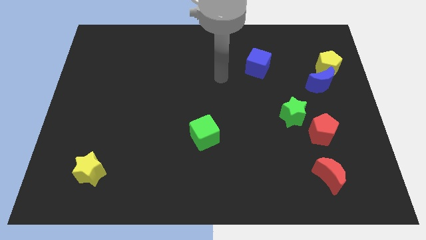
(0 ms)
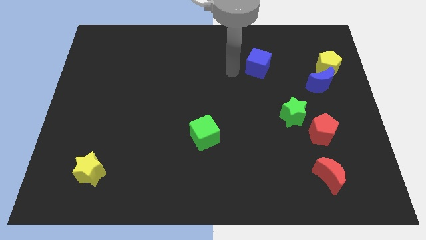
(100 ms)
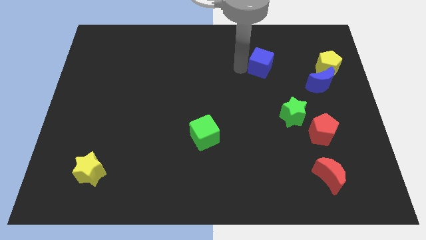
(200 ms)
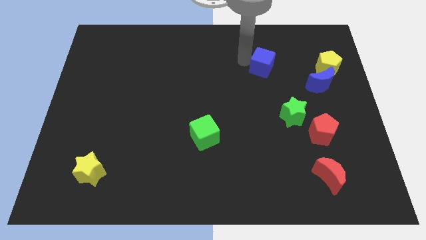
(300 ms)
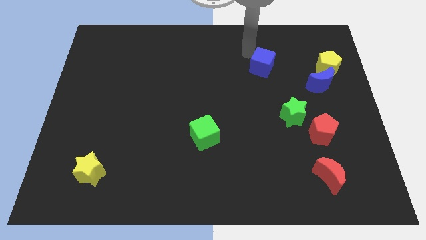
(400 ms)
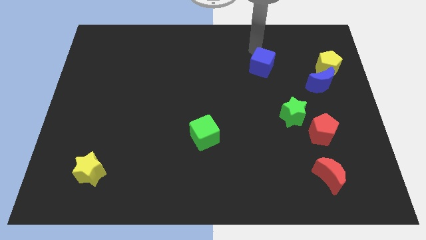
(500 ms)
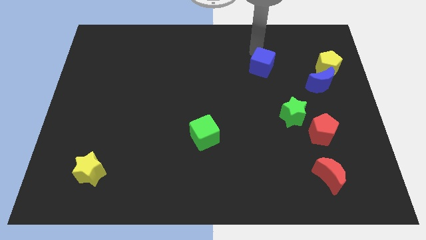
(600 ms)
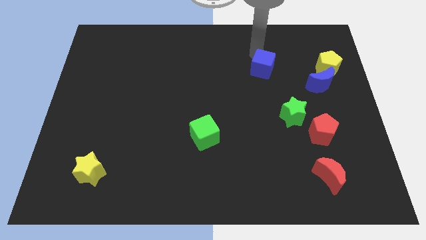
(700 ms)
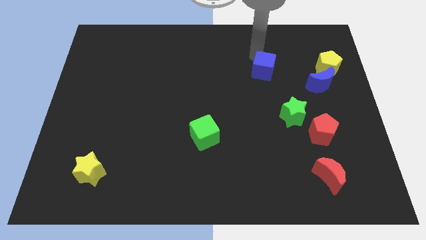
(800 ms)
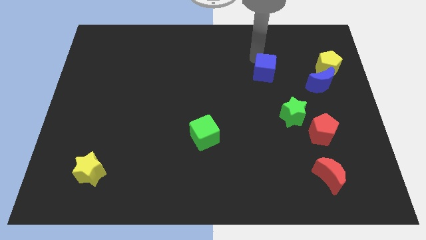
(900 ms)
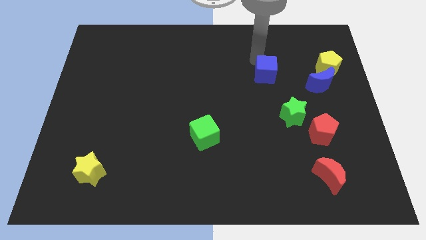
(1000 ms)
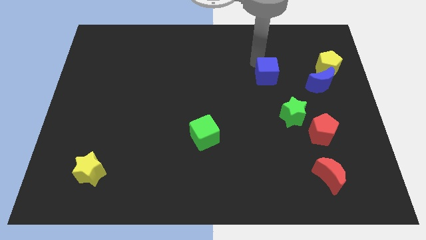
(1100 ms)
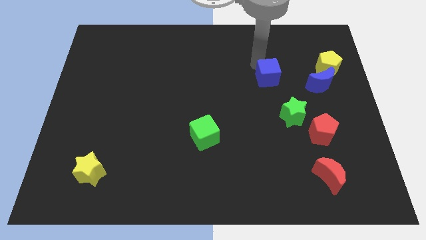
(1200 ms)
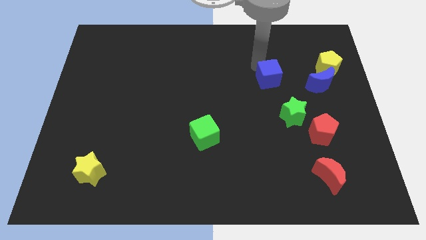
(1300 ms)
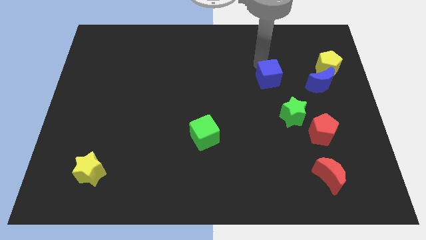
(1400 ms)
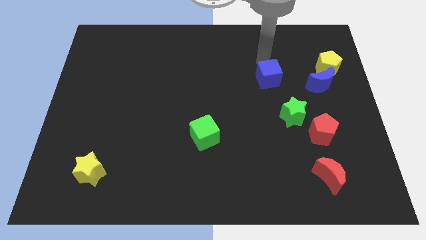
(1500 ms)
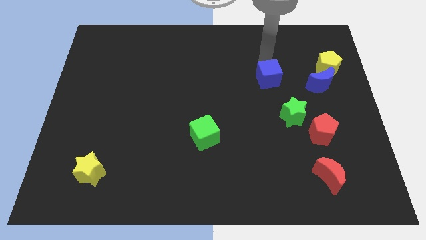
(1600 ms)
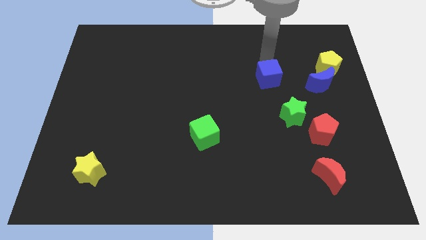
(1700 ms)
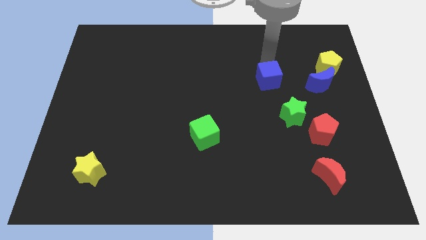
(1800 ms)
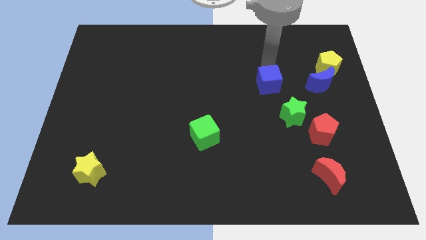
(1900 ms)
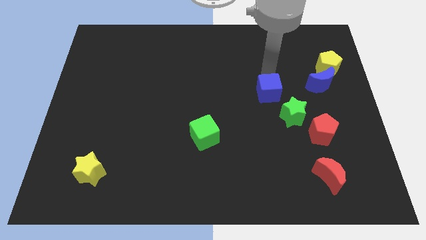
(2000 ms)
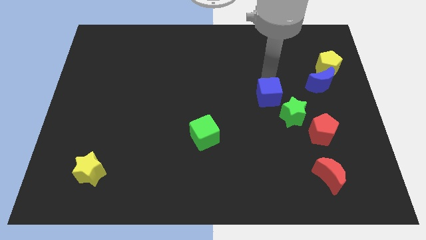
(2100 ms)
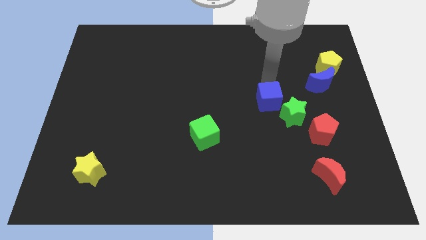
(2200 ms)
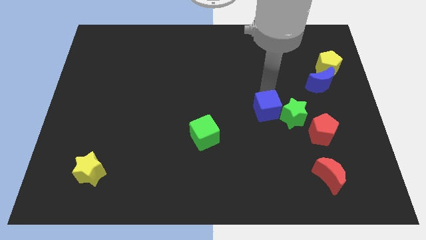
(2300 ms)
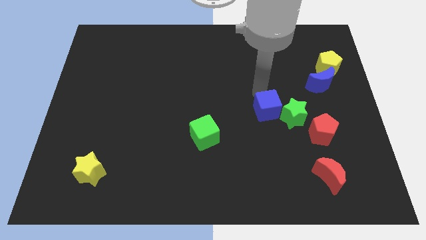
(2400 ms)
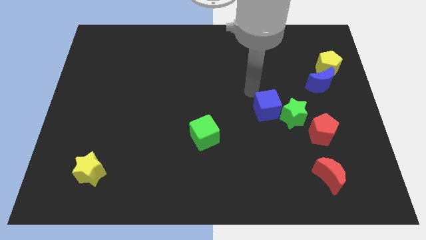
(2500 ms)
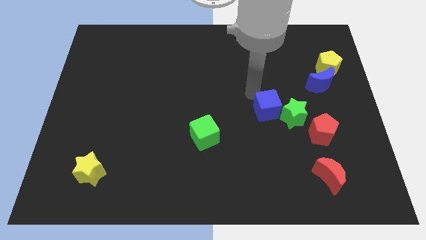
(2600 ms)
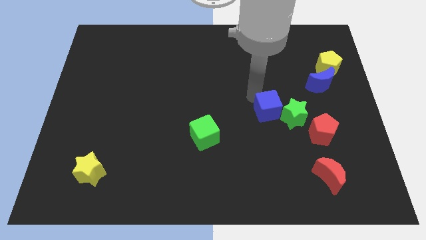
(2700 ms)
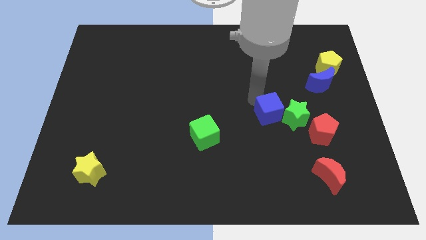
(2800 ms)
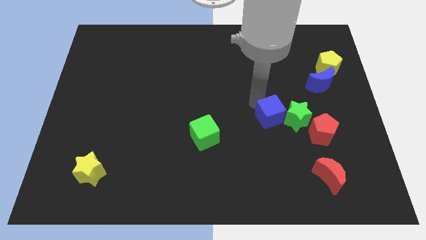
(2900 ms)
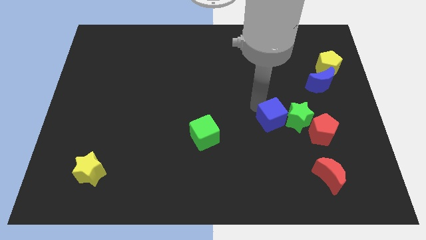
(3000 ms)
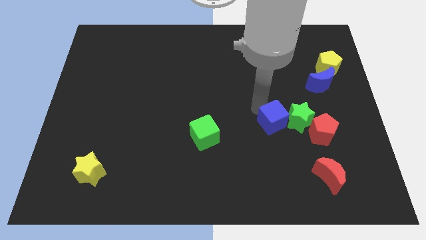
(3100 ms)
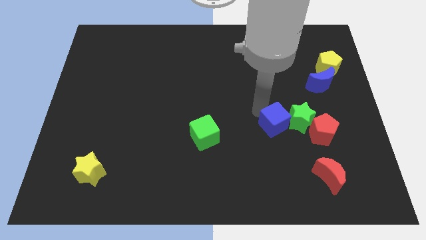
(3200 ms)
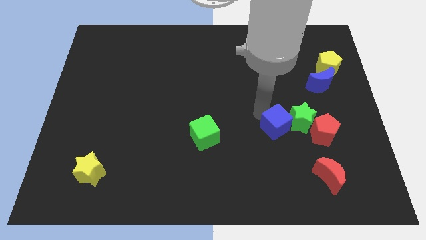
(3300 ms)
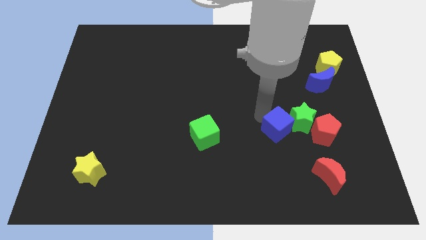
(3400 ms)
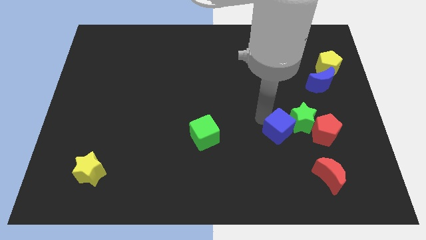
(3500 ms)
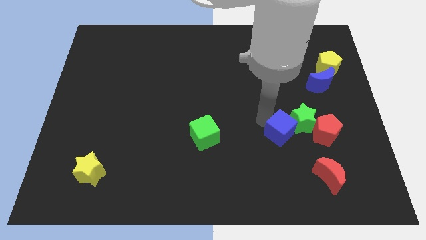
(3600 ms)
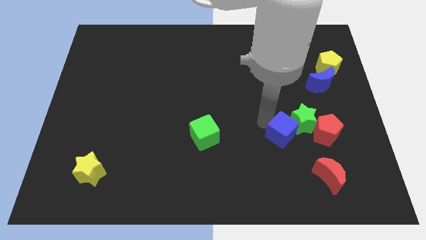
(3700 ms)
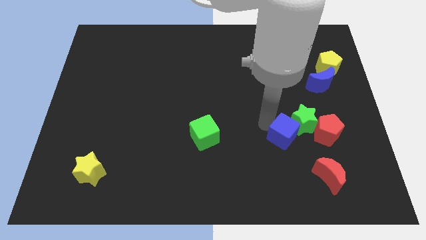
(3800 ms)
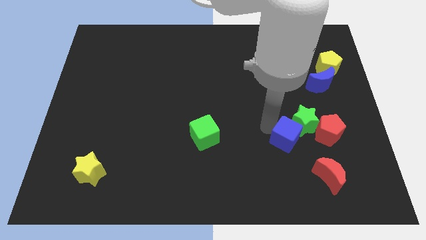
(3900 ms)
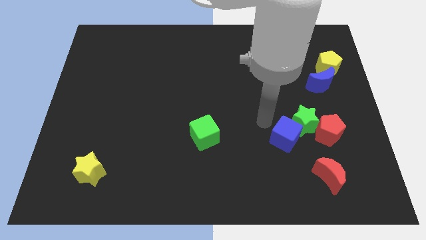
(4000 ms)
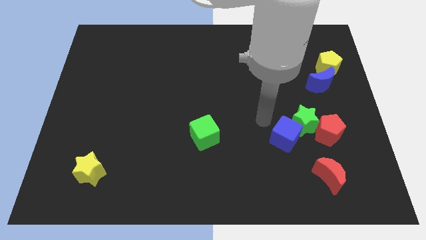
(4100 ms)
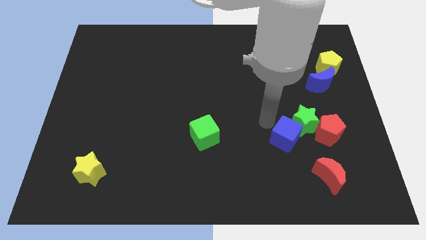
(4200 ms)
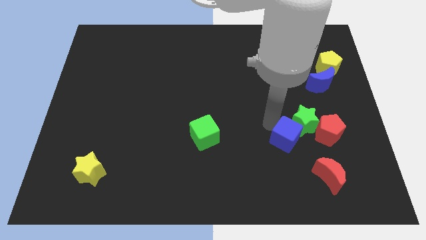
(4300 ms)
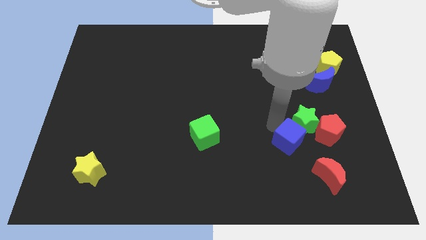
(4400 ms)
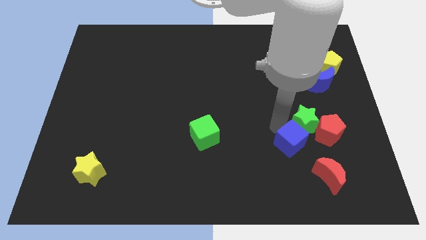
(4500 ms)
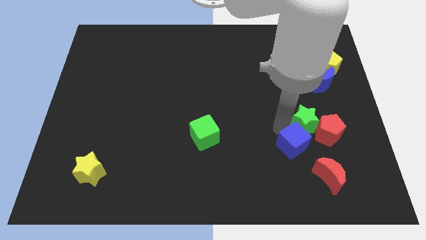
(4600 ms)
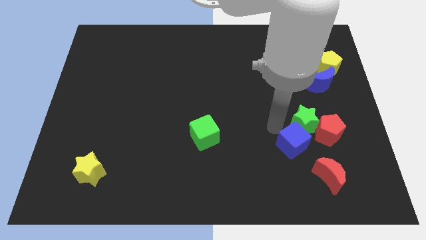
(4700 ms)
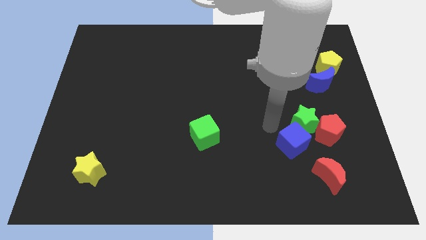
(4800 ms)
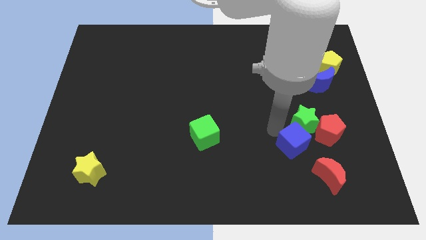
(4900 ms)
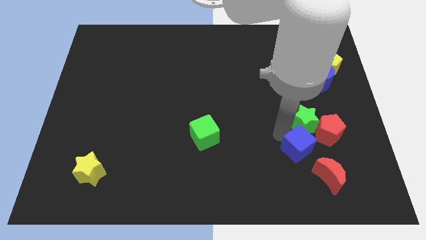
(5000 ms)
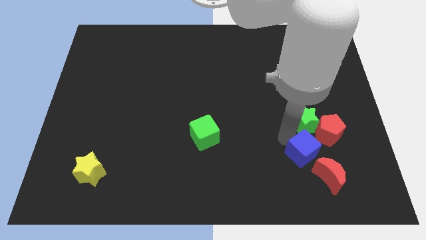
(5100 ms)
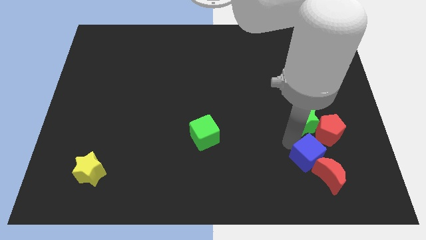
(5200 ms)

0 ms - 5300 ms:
move the blue cube next to the red moon

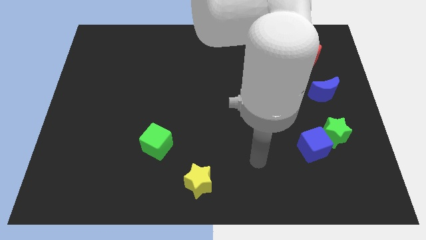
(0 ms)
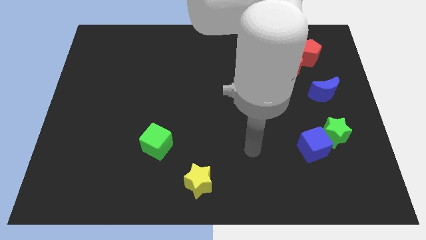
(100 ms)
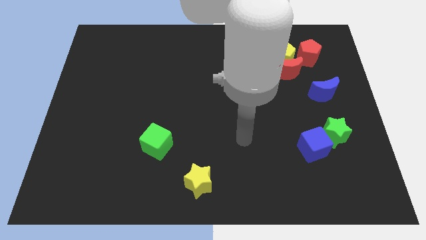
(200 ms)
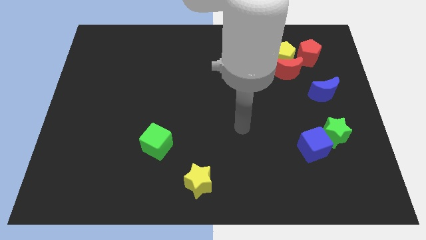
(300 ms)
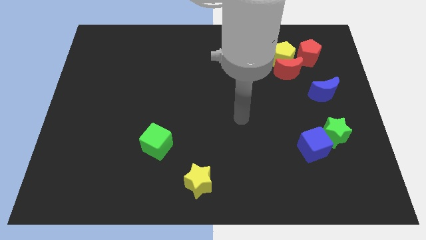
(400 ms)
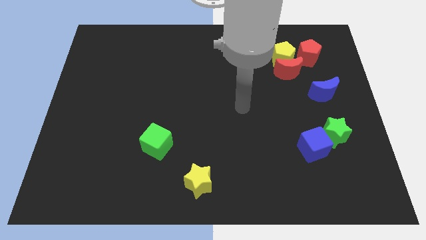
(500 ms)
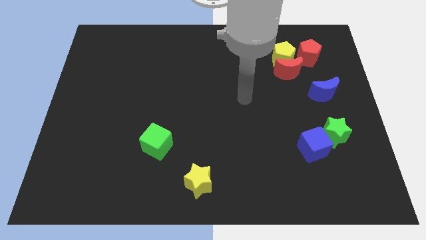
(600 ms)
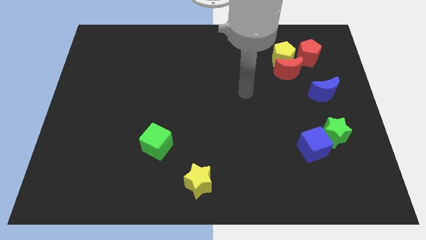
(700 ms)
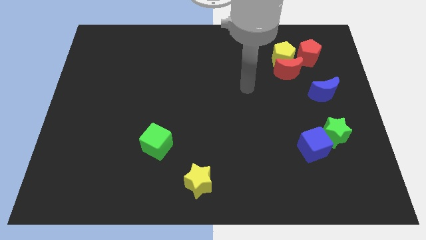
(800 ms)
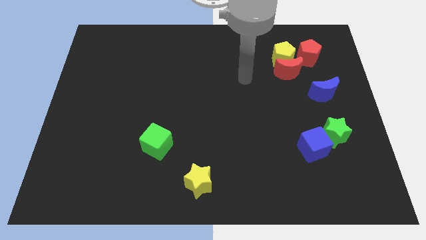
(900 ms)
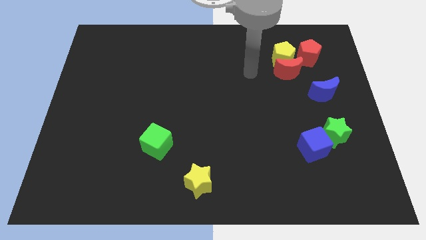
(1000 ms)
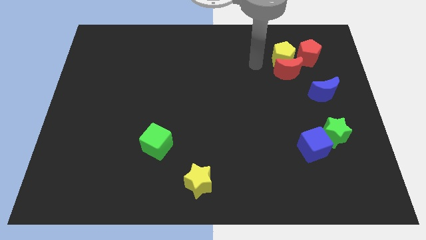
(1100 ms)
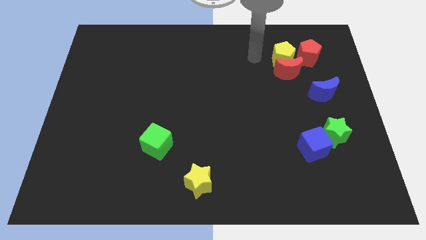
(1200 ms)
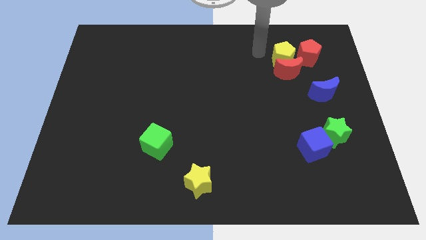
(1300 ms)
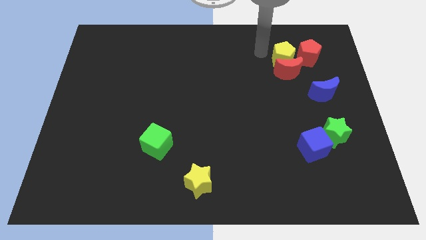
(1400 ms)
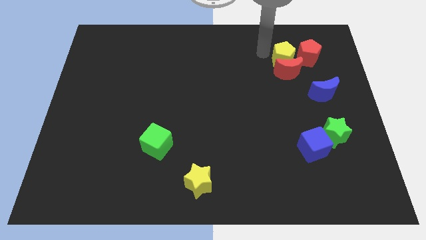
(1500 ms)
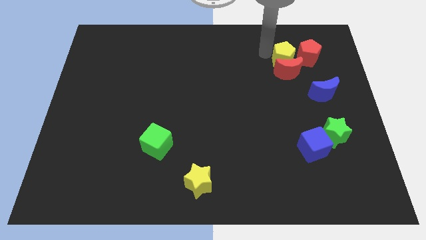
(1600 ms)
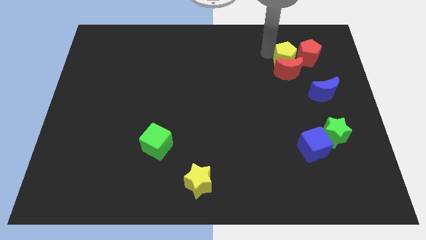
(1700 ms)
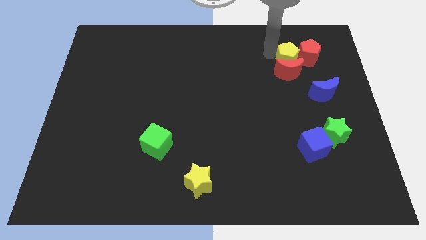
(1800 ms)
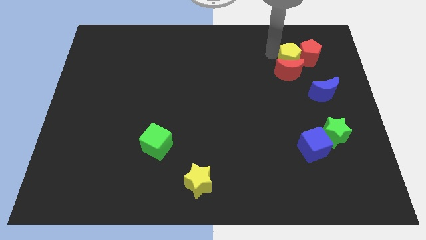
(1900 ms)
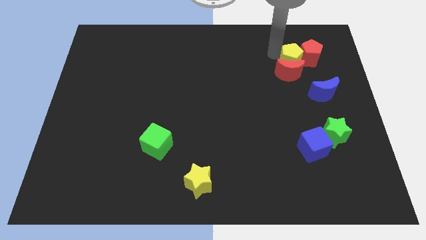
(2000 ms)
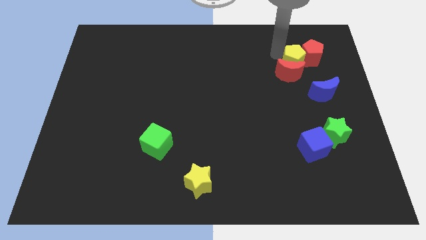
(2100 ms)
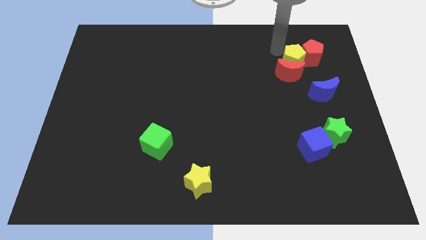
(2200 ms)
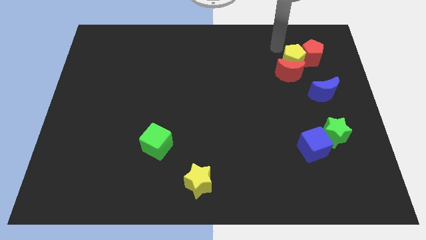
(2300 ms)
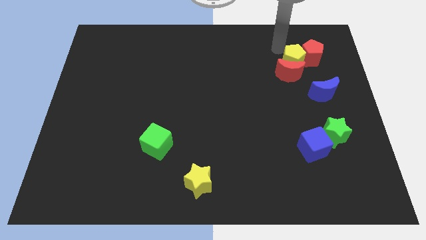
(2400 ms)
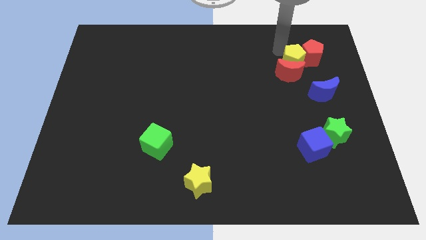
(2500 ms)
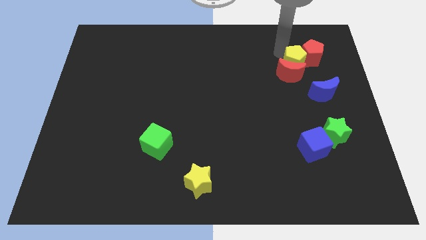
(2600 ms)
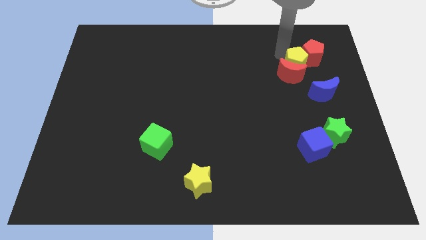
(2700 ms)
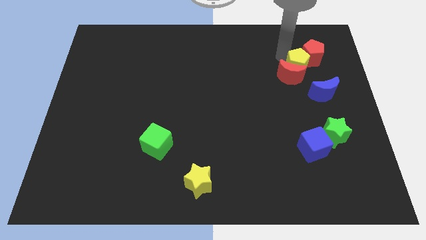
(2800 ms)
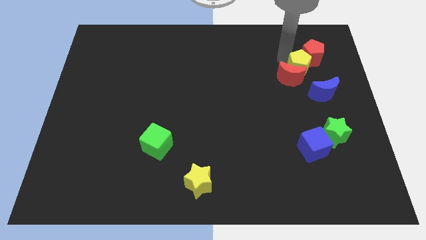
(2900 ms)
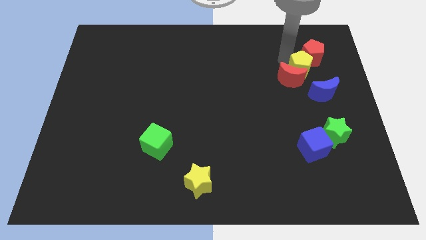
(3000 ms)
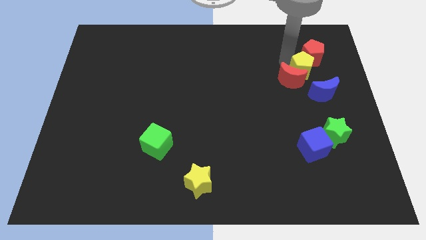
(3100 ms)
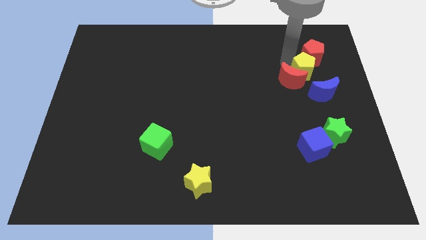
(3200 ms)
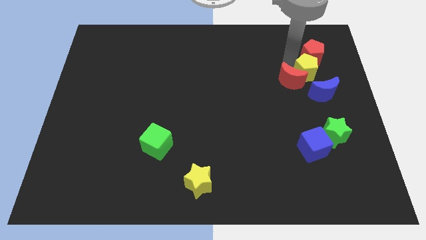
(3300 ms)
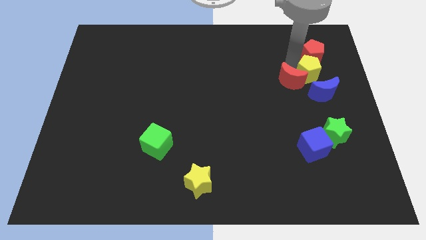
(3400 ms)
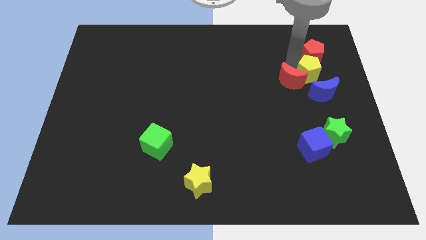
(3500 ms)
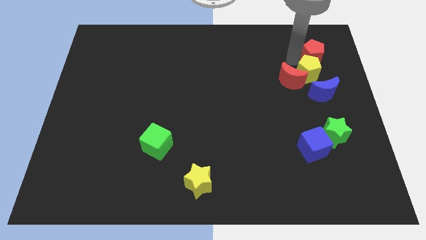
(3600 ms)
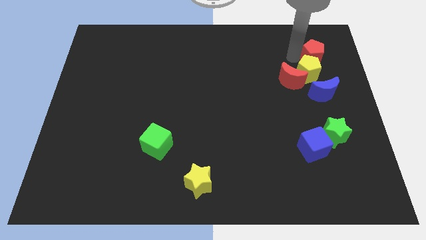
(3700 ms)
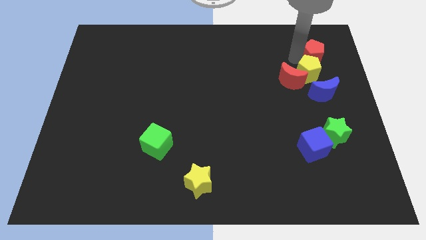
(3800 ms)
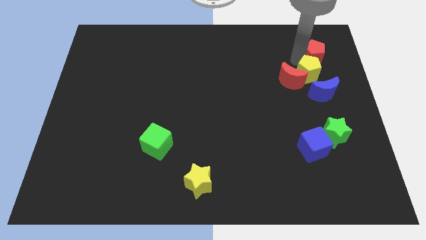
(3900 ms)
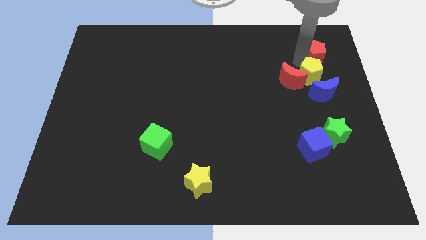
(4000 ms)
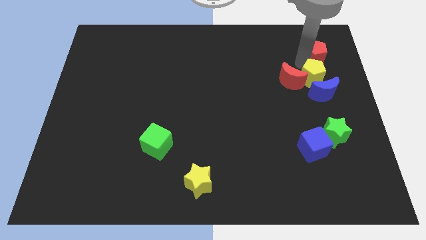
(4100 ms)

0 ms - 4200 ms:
put the yellow pentagon close to the blue moon
